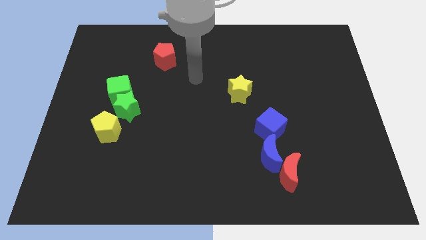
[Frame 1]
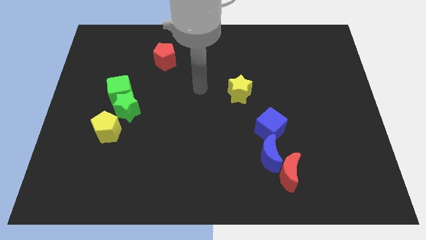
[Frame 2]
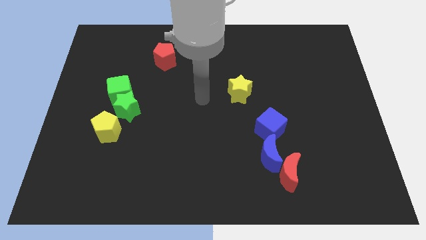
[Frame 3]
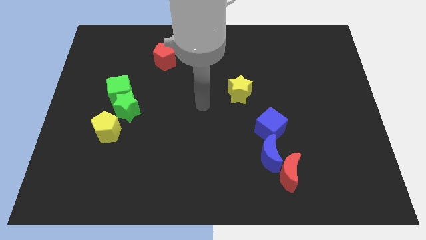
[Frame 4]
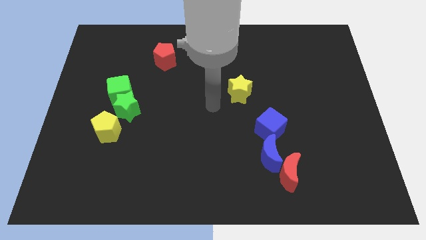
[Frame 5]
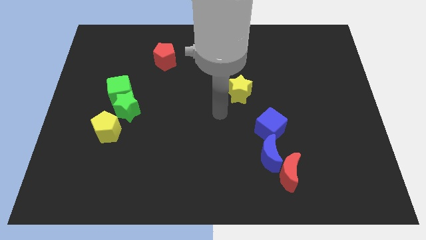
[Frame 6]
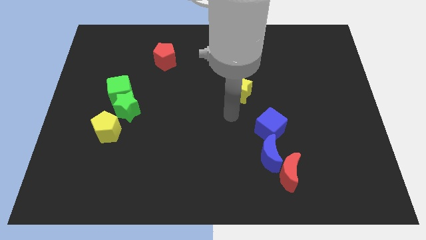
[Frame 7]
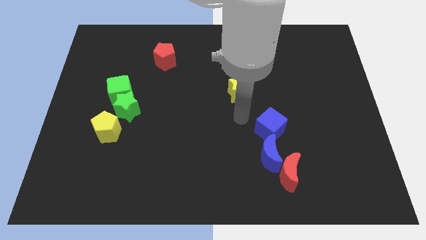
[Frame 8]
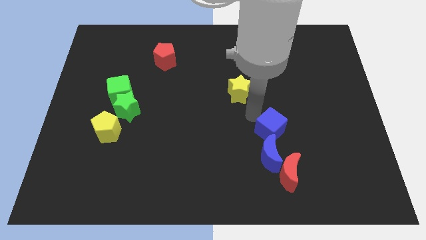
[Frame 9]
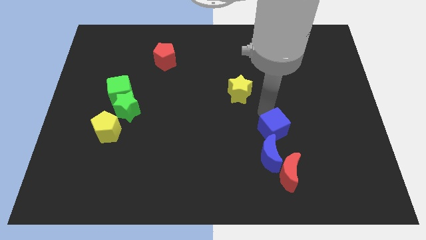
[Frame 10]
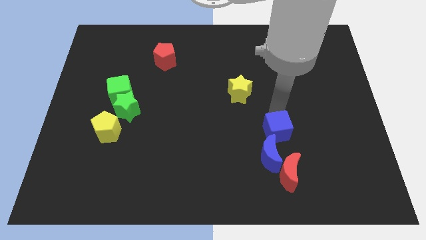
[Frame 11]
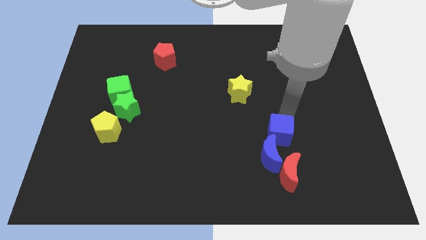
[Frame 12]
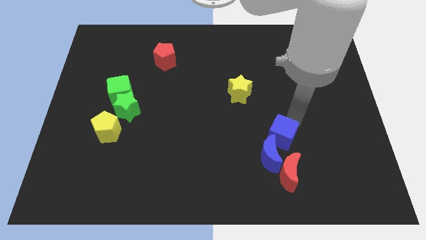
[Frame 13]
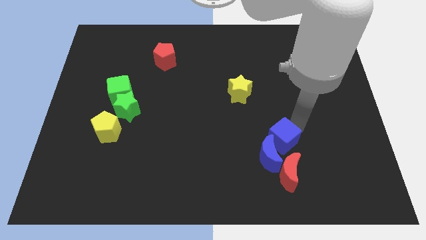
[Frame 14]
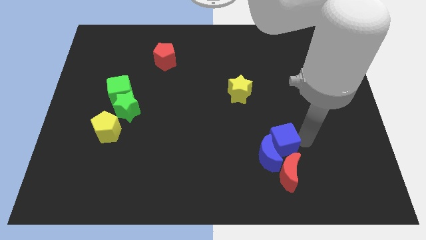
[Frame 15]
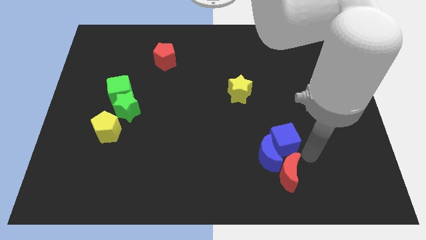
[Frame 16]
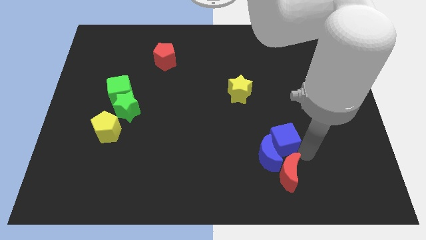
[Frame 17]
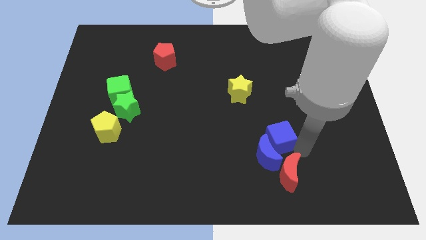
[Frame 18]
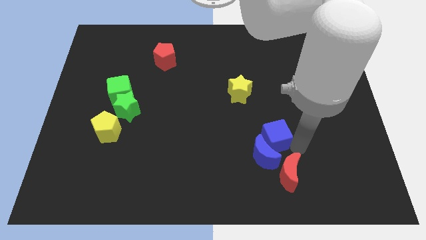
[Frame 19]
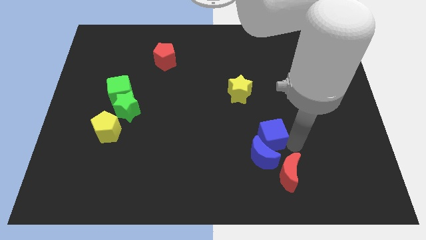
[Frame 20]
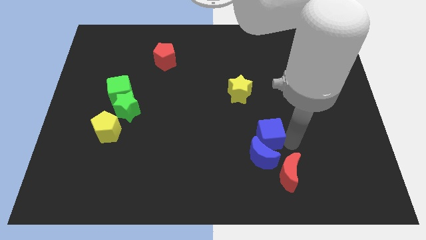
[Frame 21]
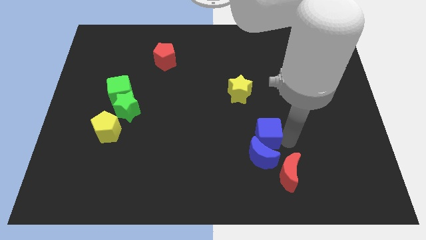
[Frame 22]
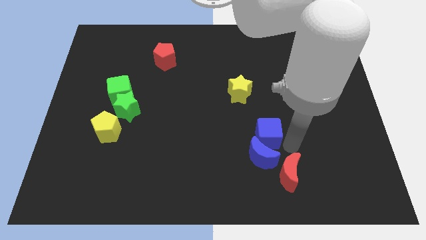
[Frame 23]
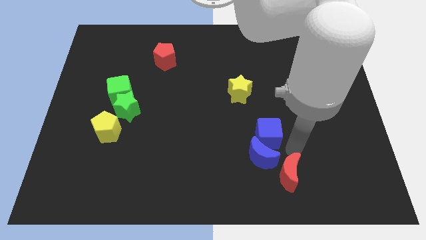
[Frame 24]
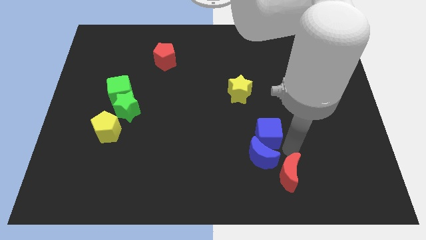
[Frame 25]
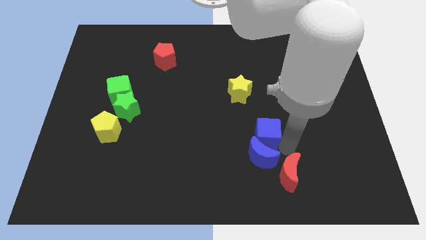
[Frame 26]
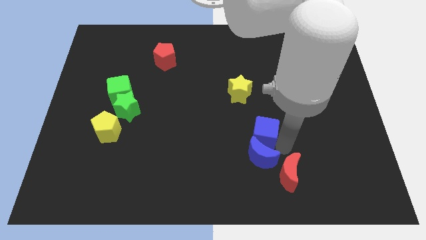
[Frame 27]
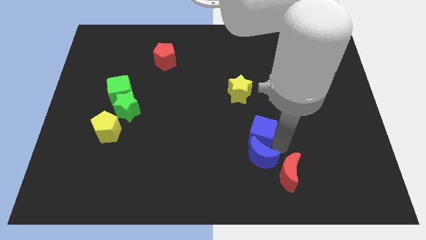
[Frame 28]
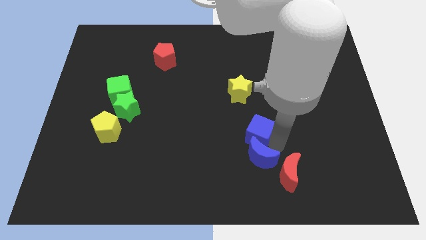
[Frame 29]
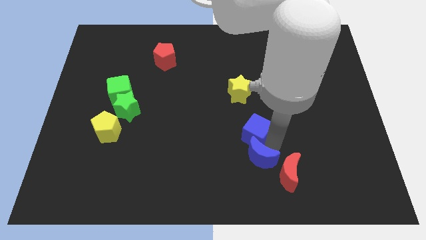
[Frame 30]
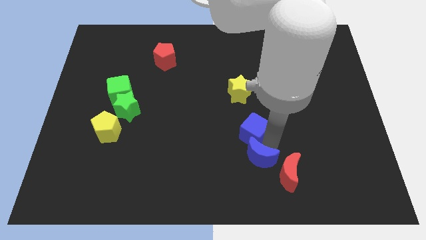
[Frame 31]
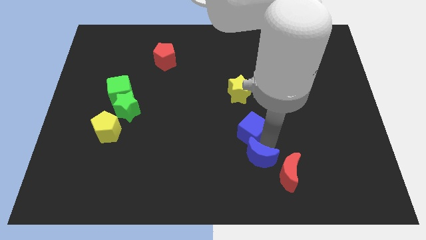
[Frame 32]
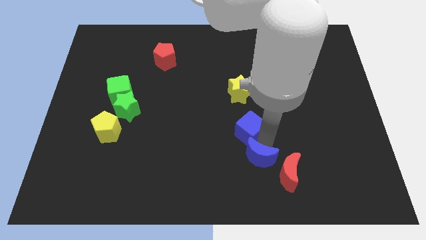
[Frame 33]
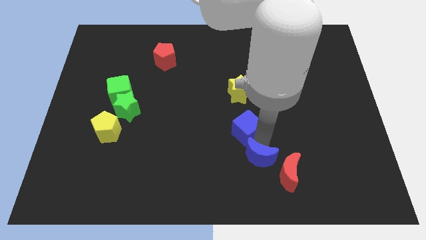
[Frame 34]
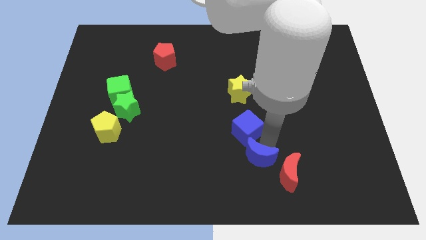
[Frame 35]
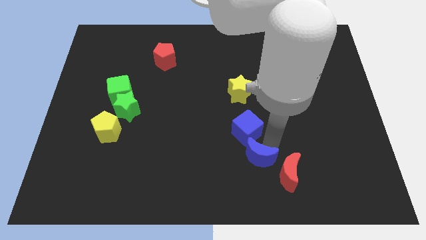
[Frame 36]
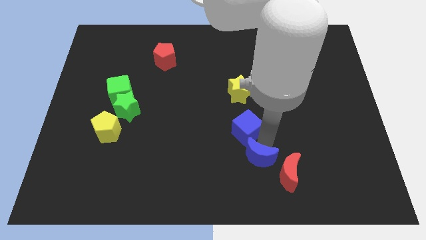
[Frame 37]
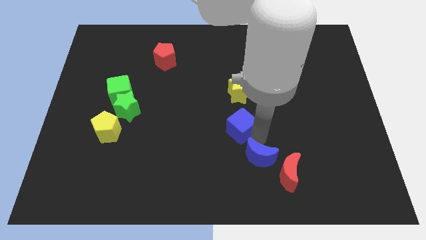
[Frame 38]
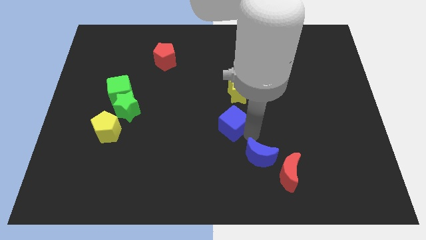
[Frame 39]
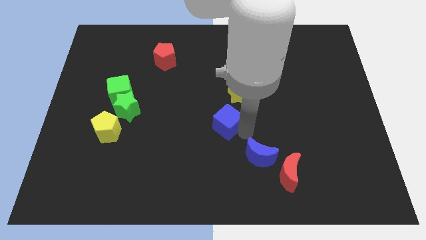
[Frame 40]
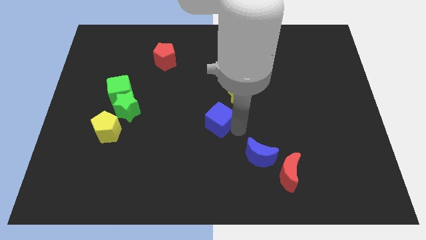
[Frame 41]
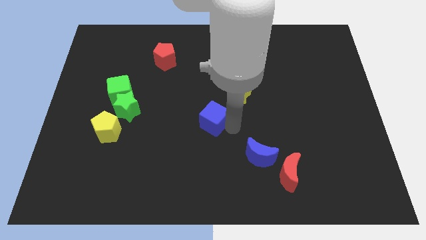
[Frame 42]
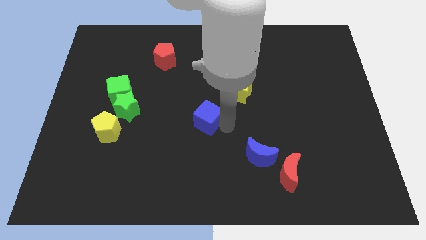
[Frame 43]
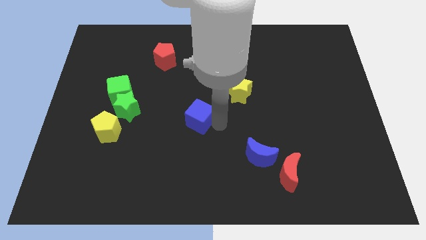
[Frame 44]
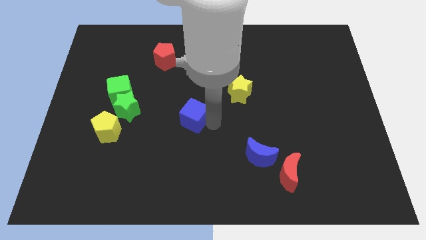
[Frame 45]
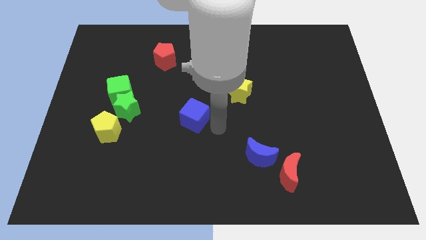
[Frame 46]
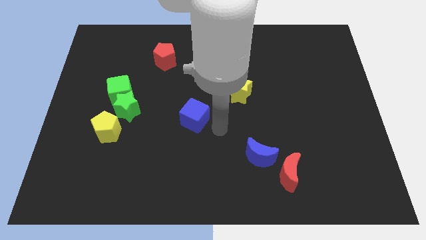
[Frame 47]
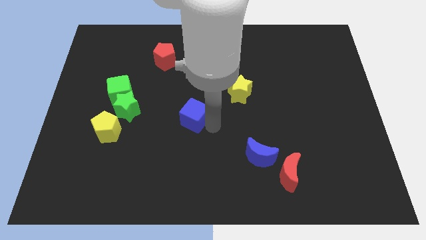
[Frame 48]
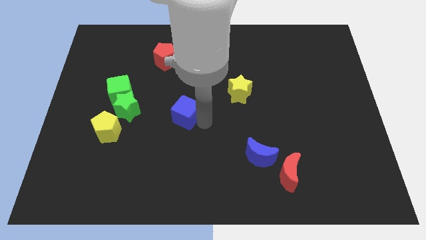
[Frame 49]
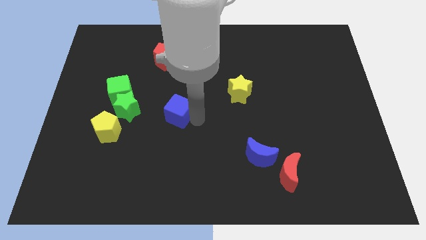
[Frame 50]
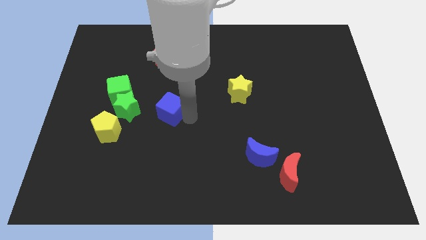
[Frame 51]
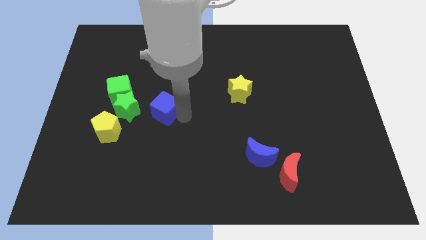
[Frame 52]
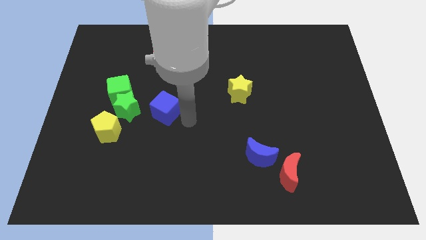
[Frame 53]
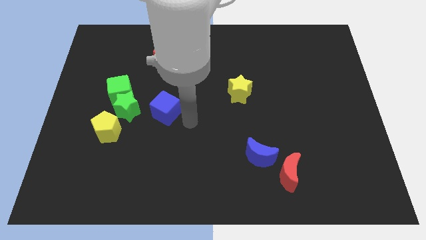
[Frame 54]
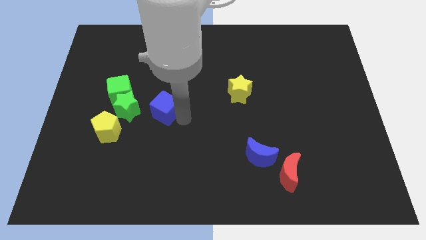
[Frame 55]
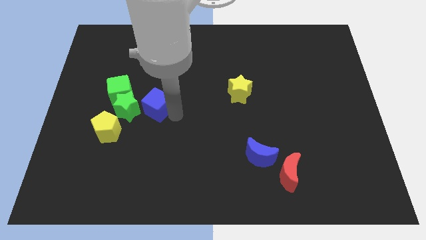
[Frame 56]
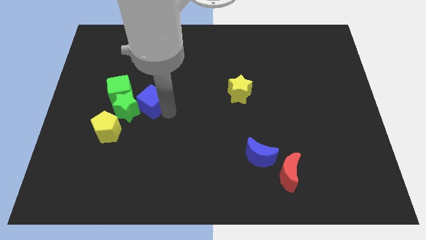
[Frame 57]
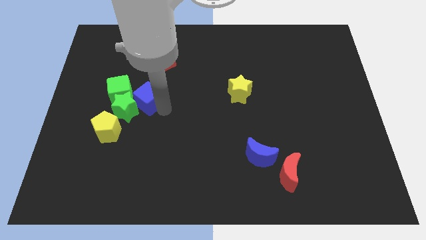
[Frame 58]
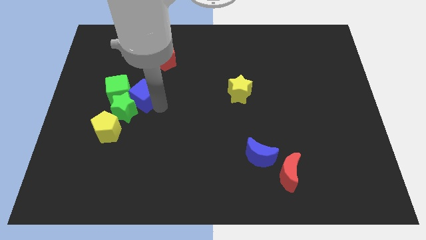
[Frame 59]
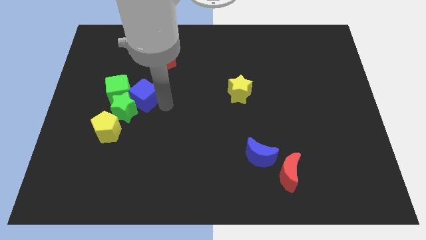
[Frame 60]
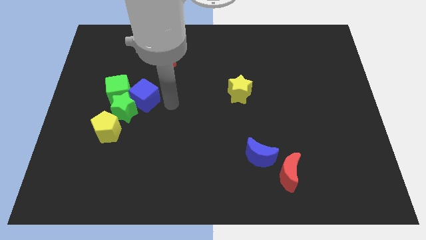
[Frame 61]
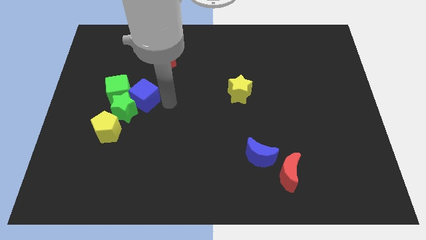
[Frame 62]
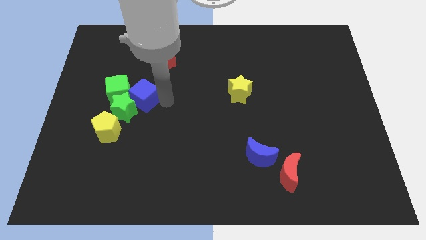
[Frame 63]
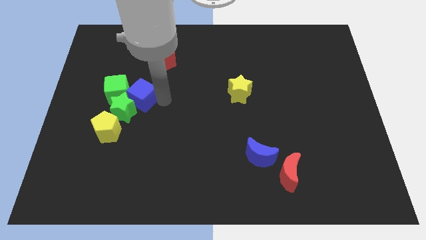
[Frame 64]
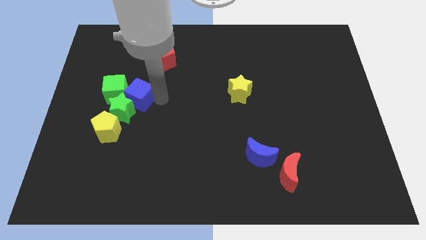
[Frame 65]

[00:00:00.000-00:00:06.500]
push the blue cube to the green cube
